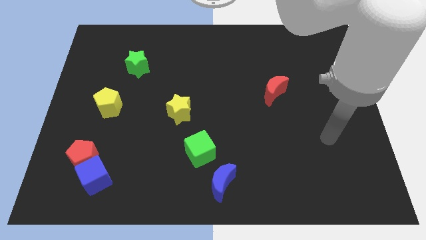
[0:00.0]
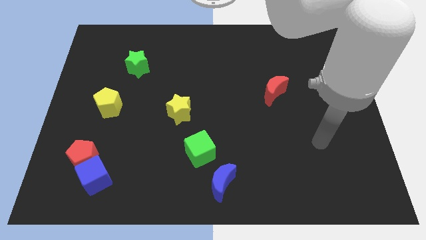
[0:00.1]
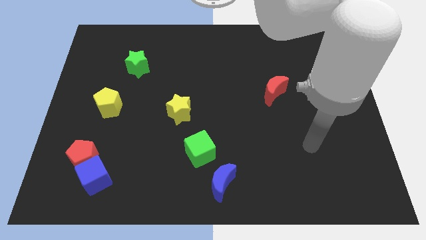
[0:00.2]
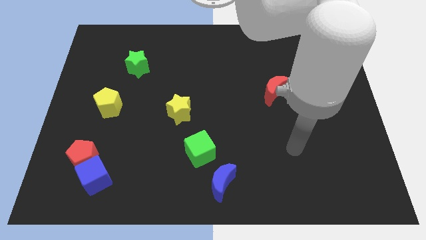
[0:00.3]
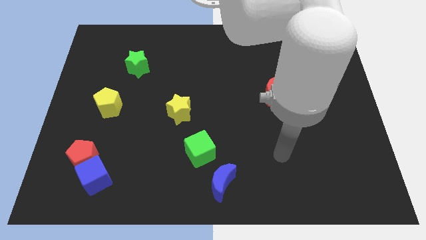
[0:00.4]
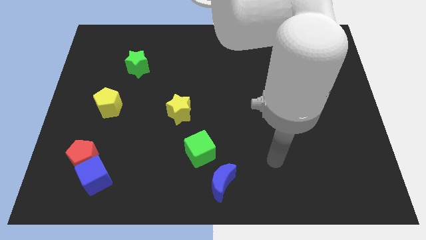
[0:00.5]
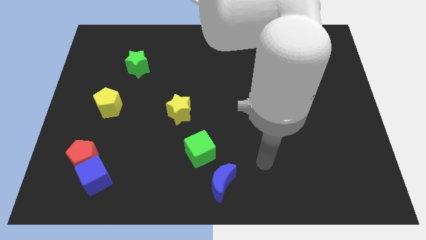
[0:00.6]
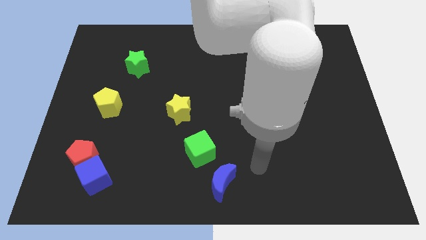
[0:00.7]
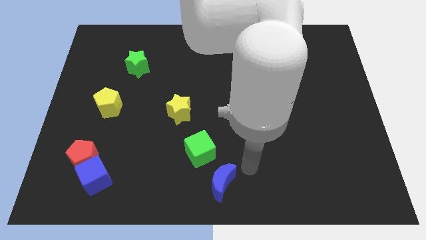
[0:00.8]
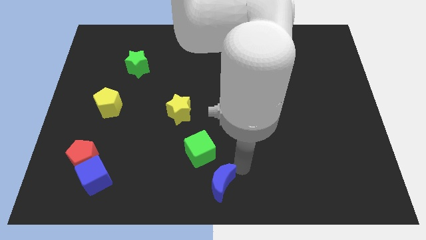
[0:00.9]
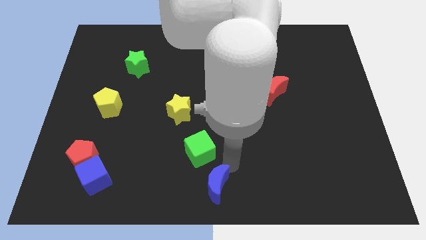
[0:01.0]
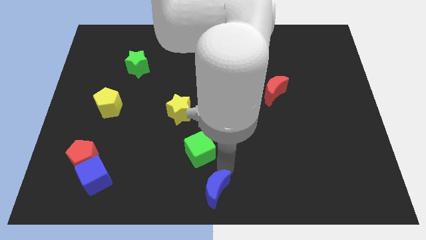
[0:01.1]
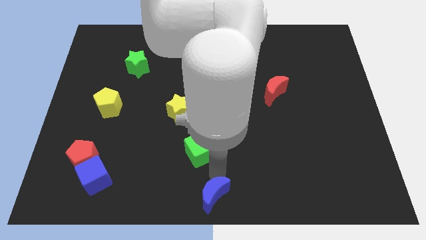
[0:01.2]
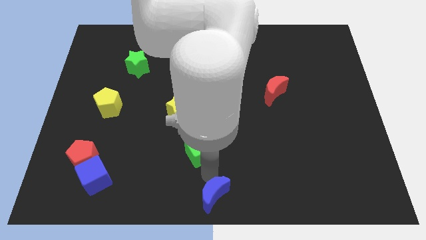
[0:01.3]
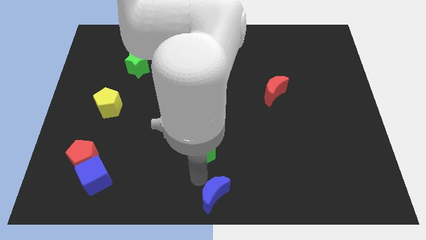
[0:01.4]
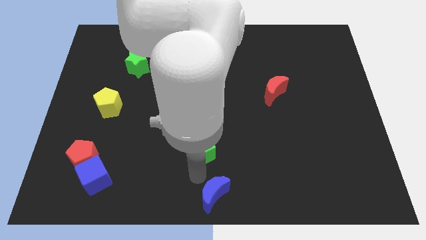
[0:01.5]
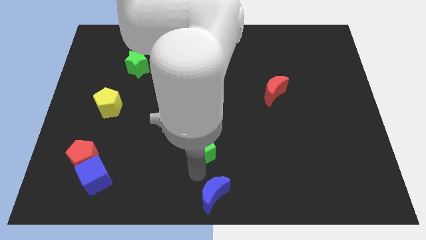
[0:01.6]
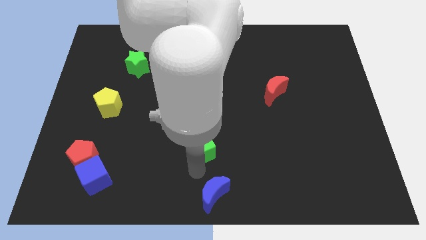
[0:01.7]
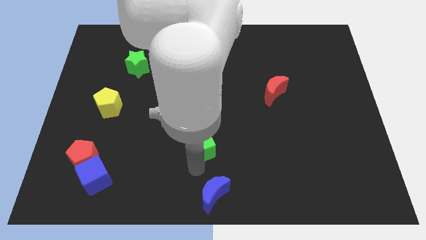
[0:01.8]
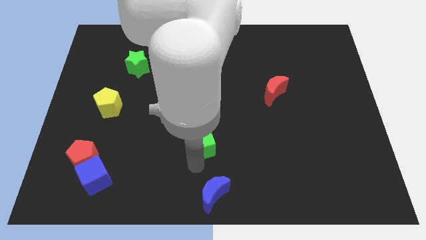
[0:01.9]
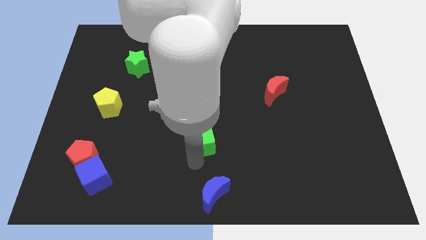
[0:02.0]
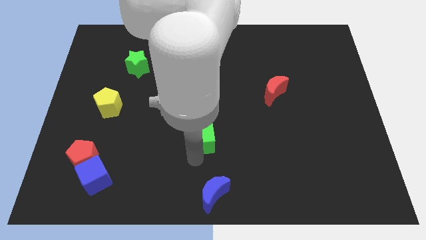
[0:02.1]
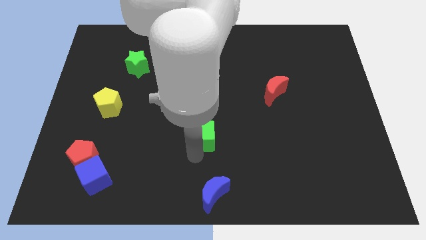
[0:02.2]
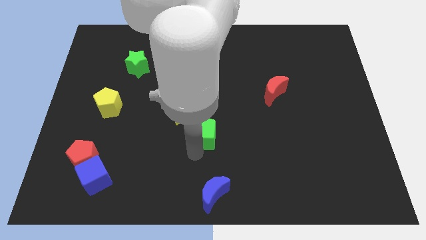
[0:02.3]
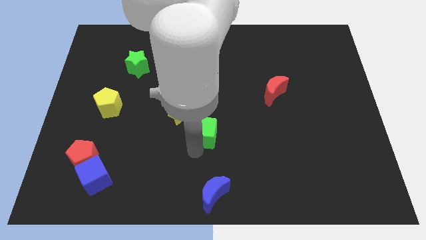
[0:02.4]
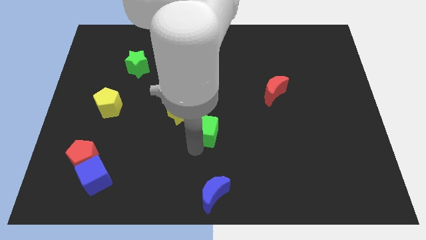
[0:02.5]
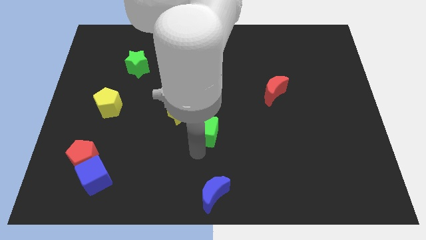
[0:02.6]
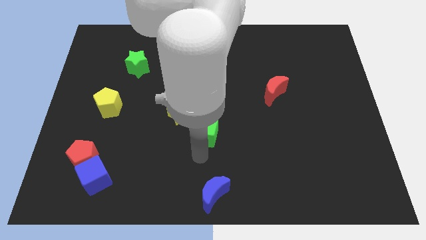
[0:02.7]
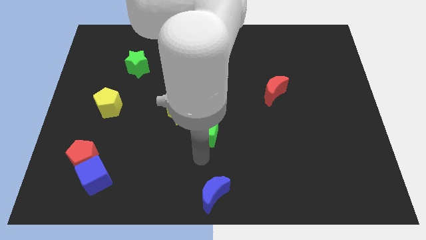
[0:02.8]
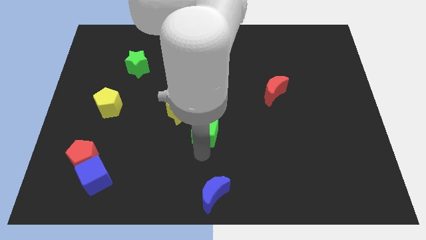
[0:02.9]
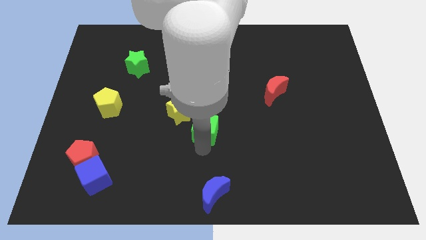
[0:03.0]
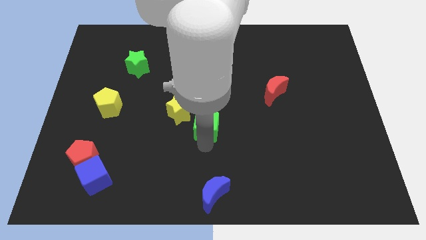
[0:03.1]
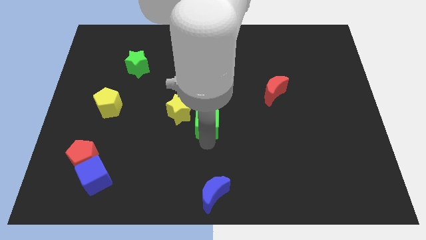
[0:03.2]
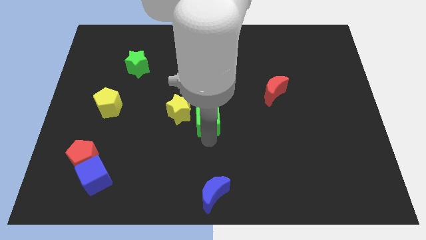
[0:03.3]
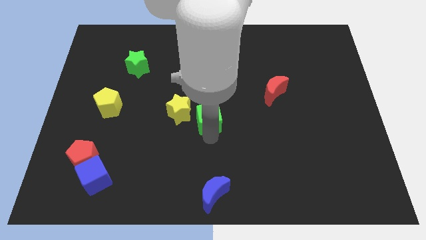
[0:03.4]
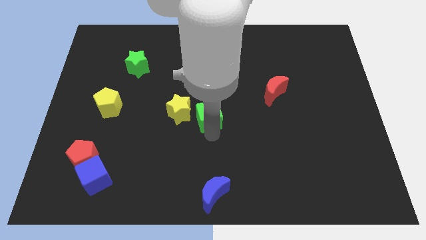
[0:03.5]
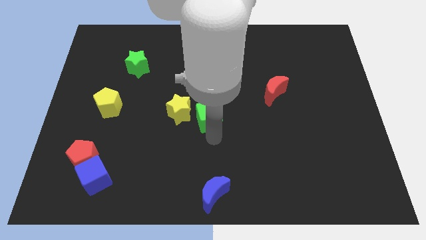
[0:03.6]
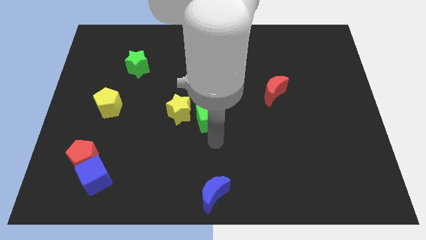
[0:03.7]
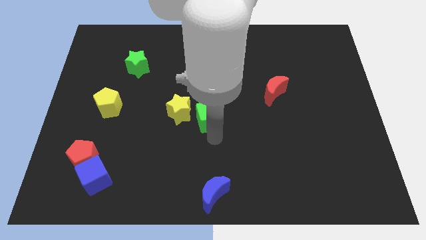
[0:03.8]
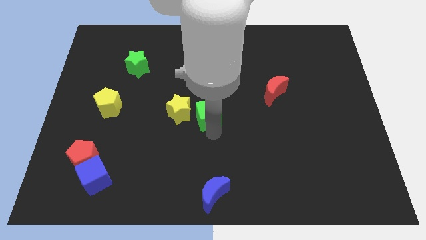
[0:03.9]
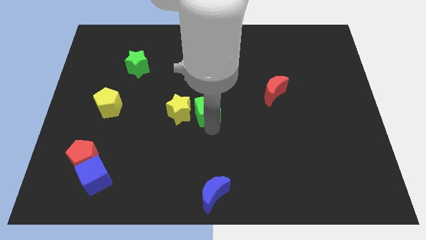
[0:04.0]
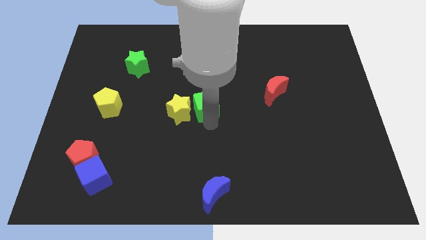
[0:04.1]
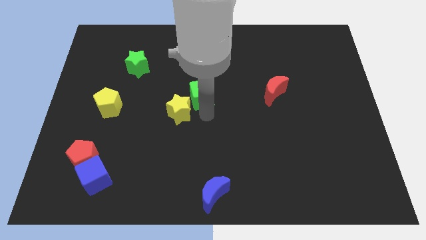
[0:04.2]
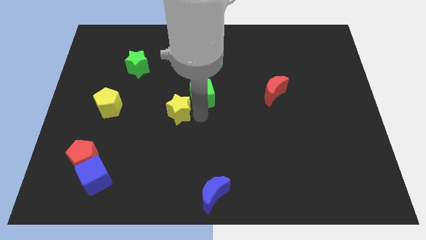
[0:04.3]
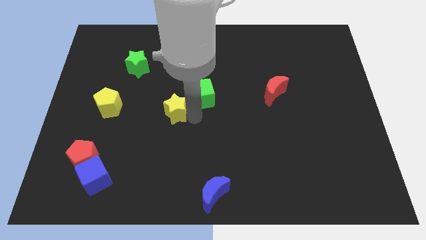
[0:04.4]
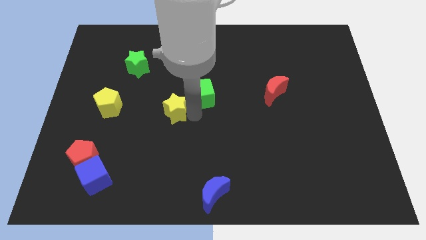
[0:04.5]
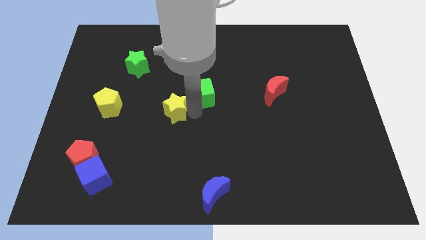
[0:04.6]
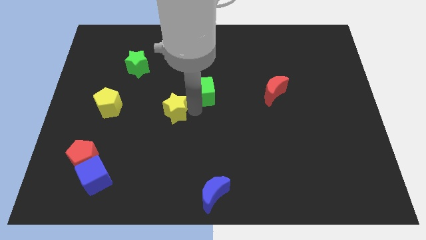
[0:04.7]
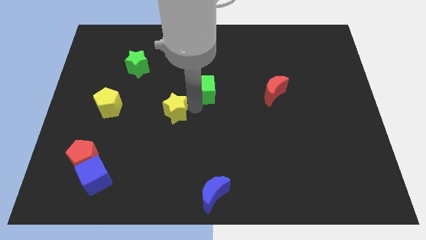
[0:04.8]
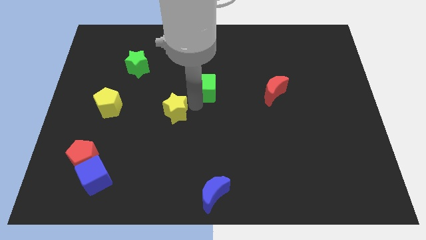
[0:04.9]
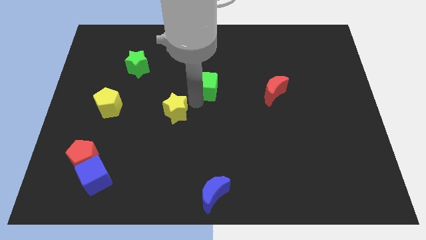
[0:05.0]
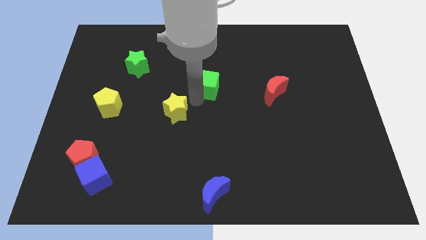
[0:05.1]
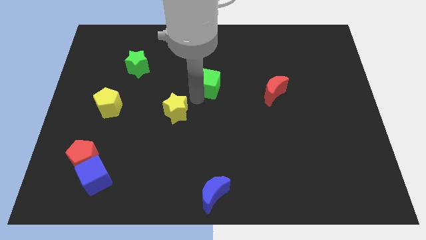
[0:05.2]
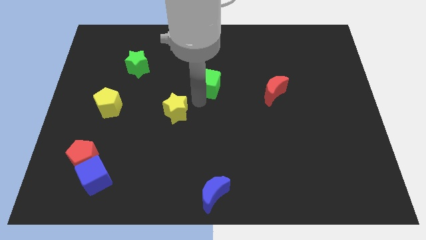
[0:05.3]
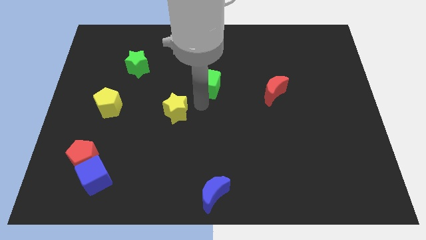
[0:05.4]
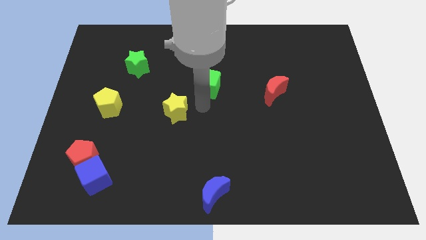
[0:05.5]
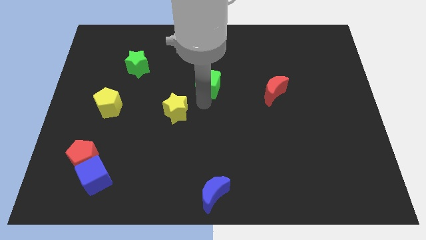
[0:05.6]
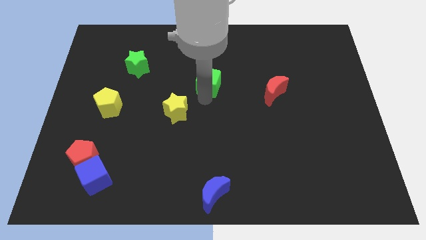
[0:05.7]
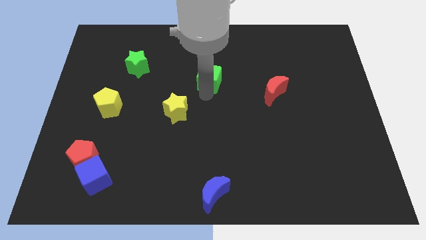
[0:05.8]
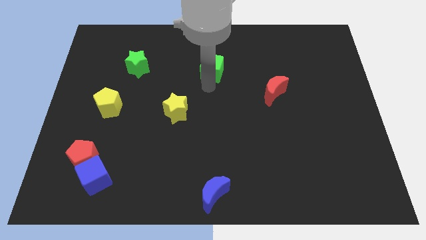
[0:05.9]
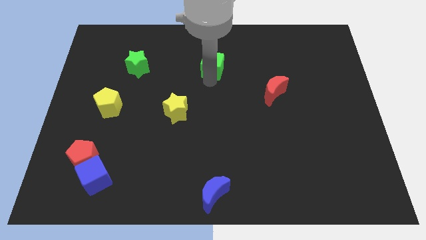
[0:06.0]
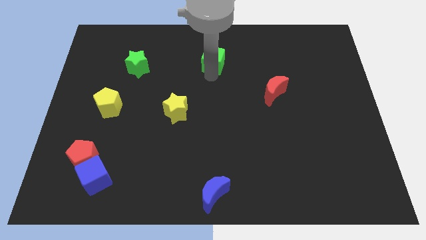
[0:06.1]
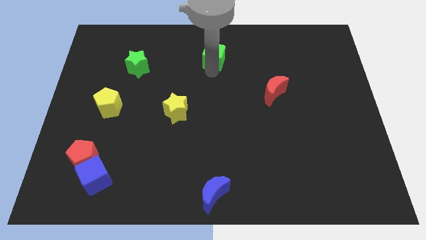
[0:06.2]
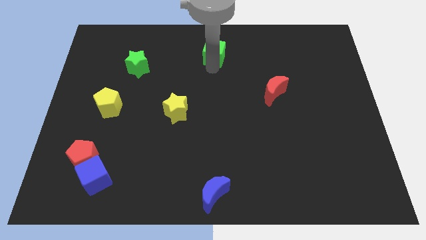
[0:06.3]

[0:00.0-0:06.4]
push the green cube to the top

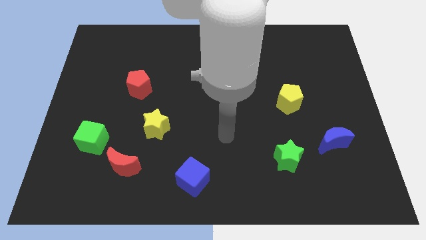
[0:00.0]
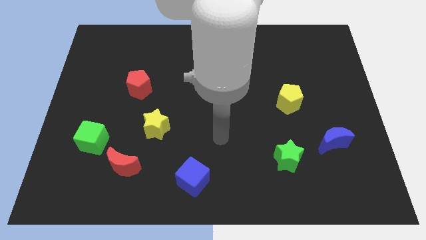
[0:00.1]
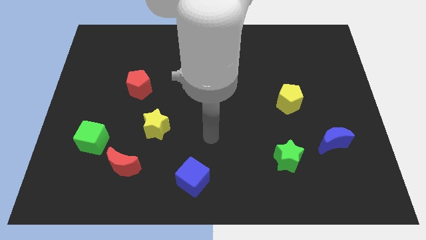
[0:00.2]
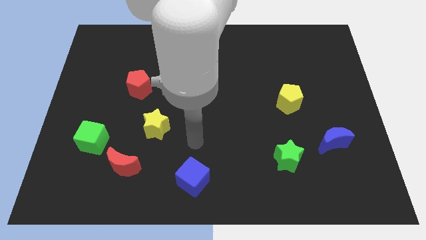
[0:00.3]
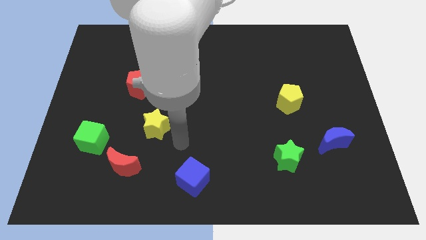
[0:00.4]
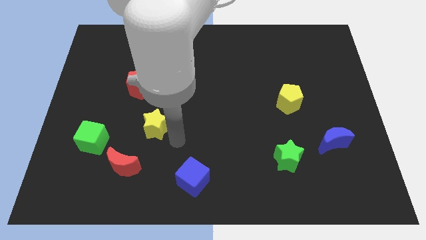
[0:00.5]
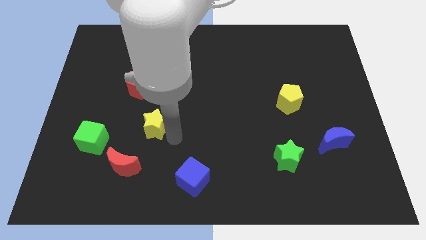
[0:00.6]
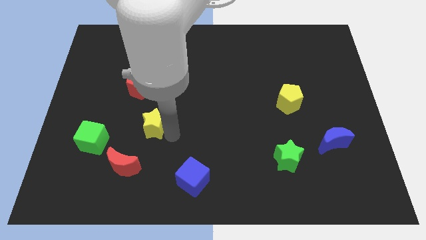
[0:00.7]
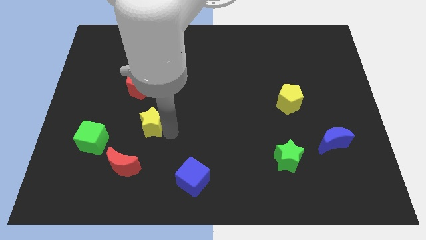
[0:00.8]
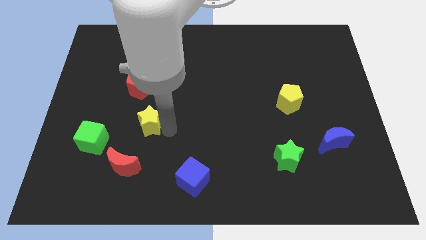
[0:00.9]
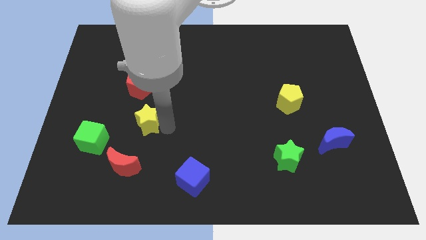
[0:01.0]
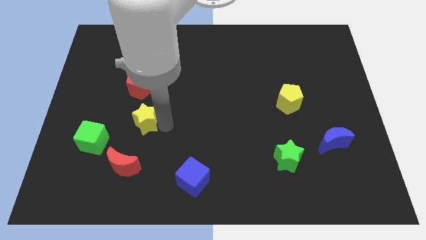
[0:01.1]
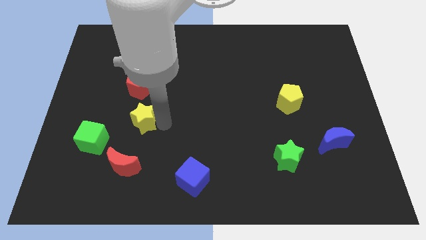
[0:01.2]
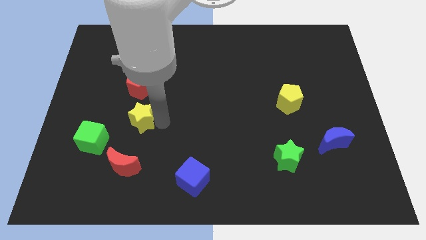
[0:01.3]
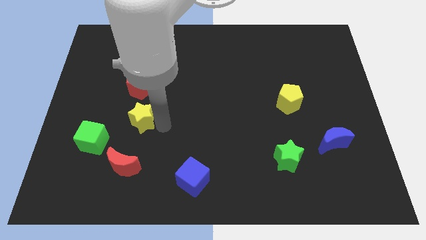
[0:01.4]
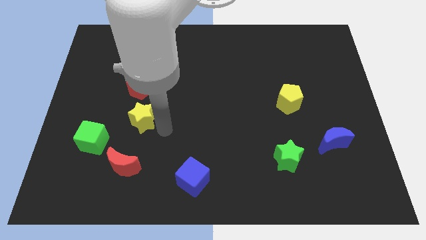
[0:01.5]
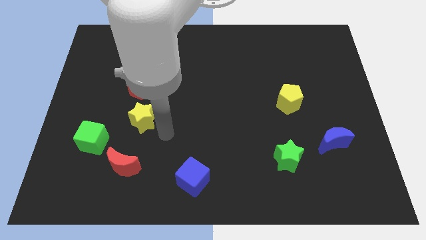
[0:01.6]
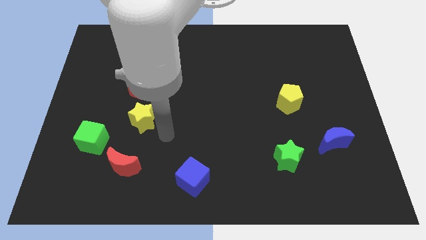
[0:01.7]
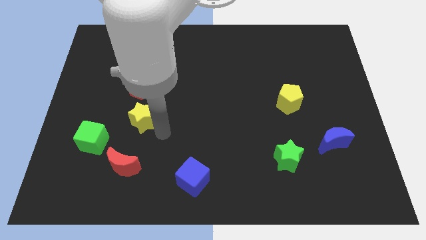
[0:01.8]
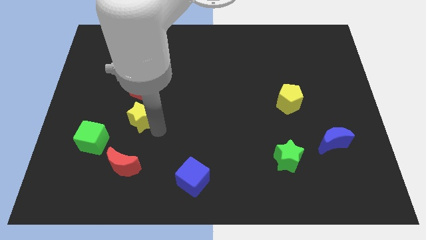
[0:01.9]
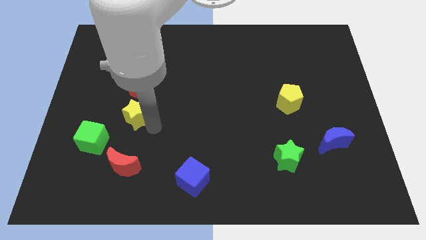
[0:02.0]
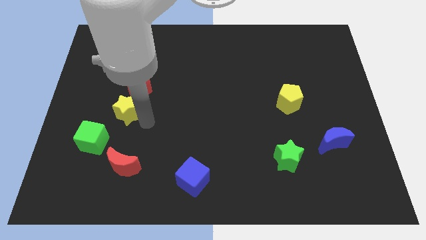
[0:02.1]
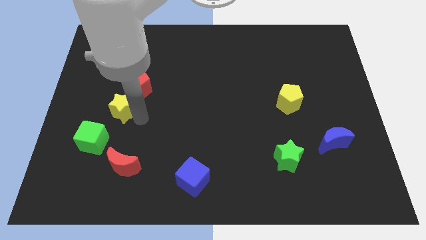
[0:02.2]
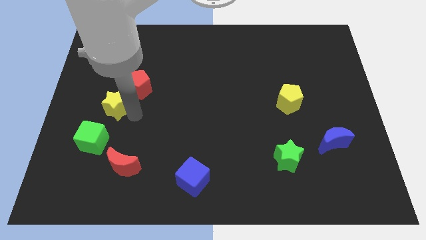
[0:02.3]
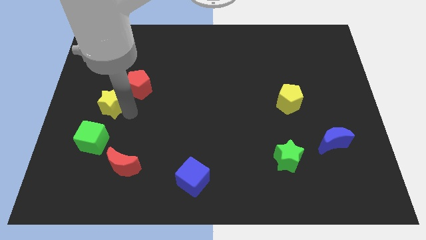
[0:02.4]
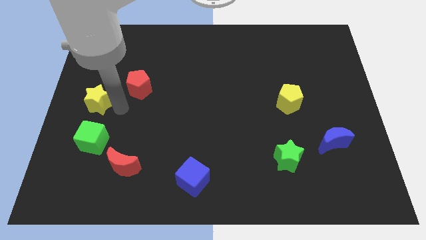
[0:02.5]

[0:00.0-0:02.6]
slide the yellow star to the left side of the board
